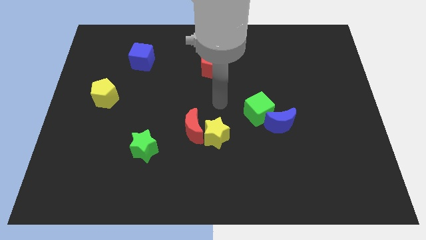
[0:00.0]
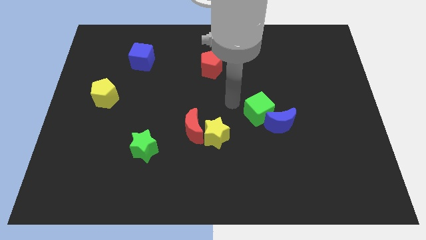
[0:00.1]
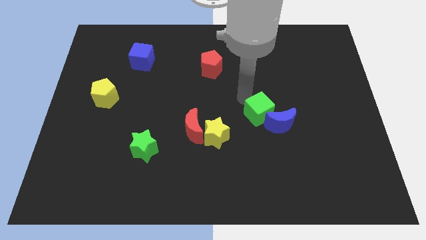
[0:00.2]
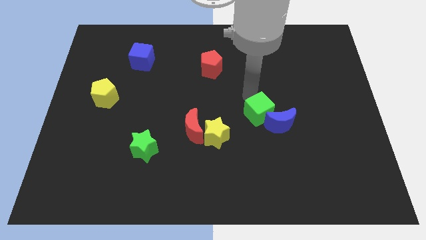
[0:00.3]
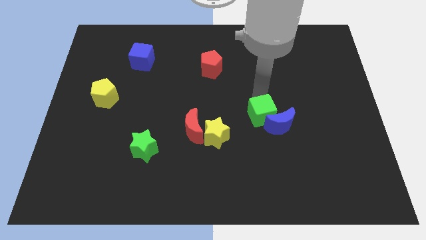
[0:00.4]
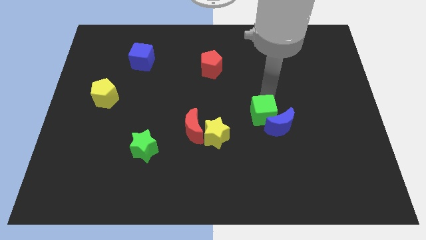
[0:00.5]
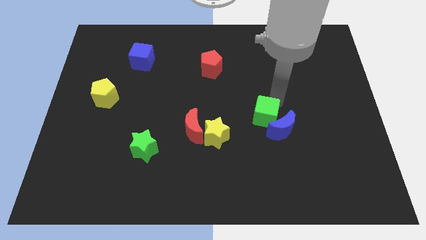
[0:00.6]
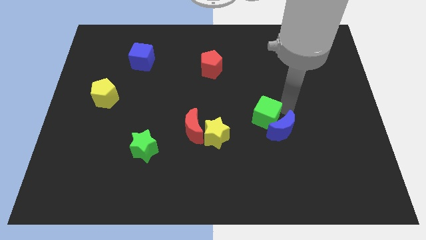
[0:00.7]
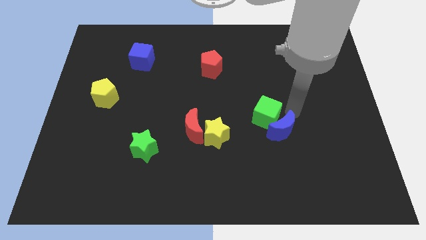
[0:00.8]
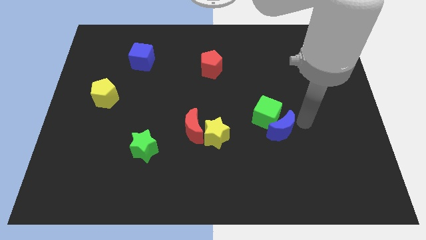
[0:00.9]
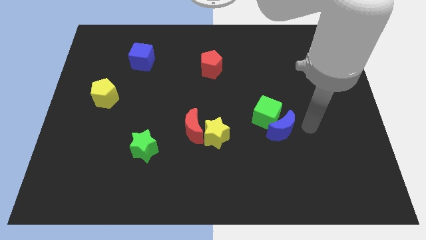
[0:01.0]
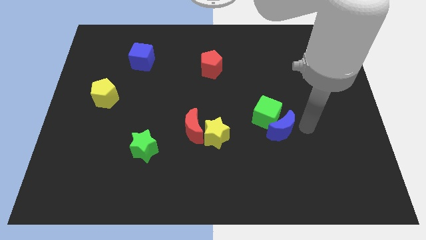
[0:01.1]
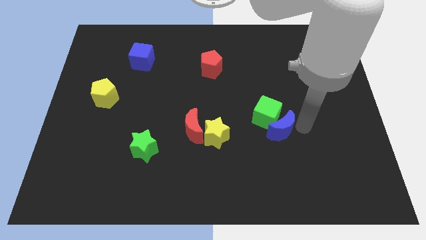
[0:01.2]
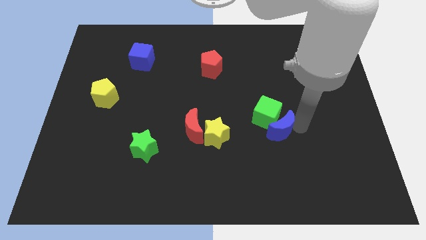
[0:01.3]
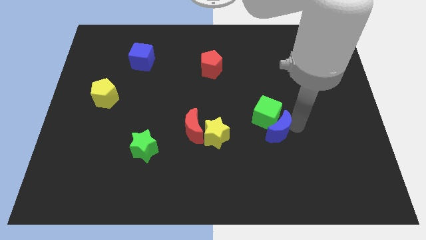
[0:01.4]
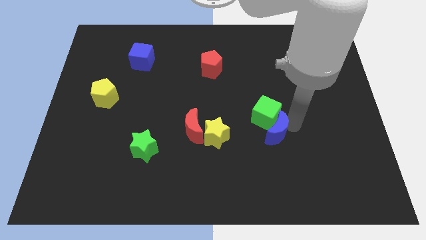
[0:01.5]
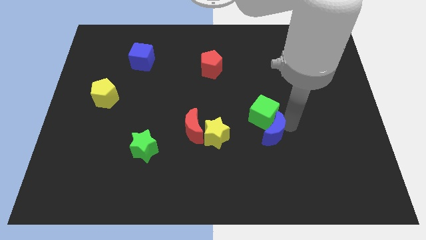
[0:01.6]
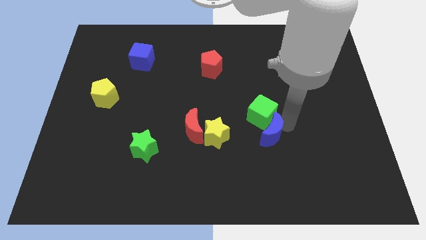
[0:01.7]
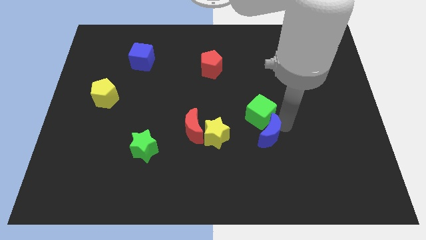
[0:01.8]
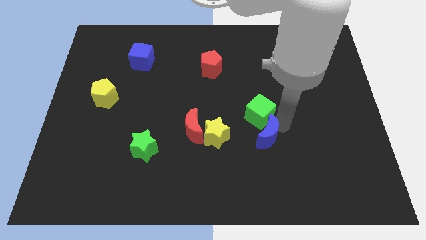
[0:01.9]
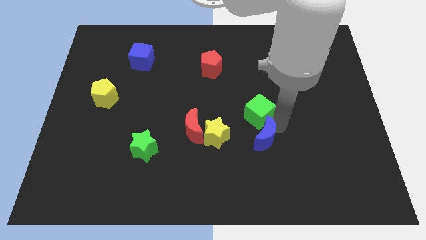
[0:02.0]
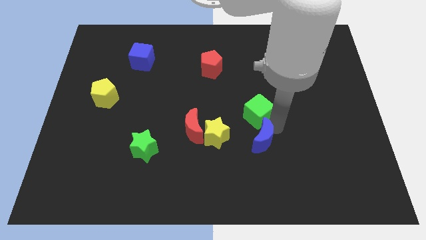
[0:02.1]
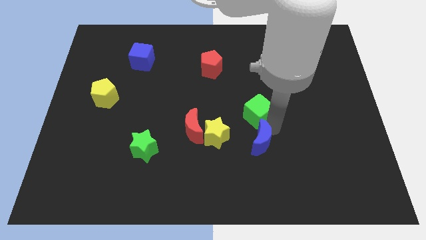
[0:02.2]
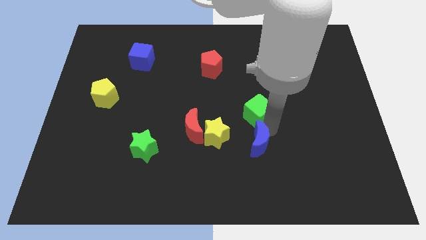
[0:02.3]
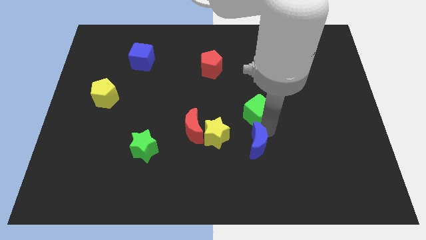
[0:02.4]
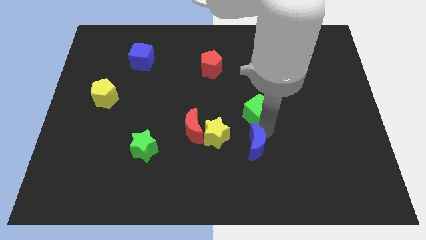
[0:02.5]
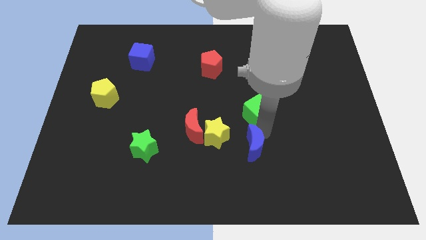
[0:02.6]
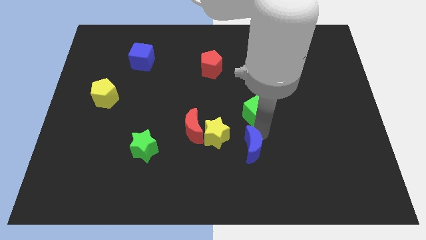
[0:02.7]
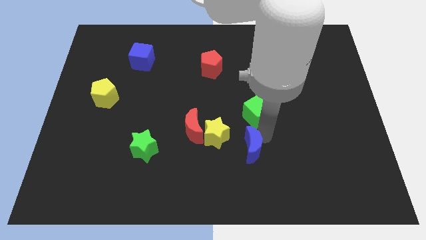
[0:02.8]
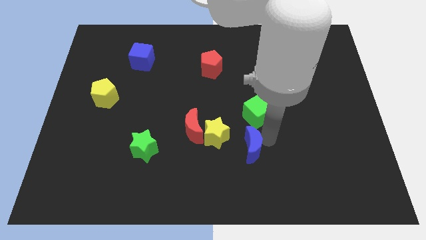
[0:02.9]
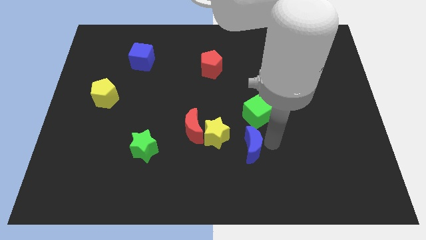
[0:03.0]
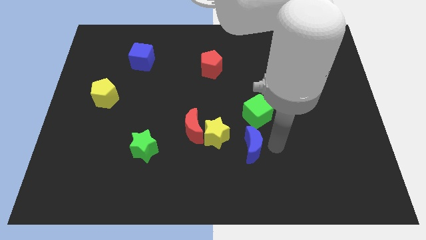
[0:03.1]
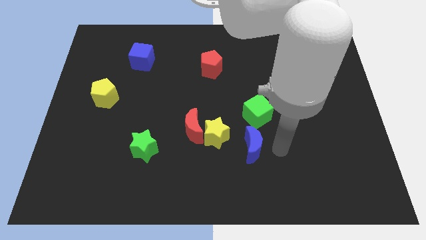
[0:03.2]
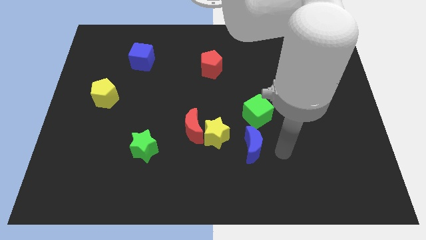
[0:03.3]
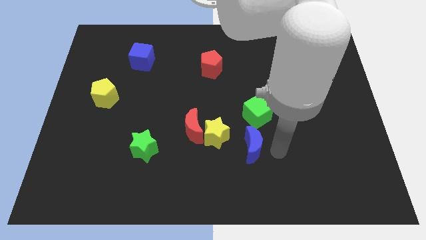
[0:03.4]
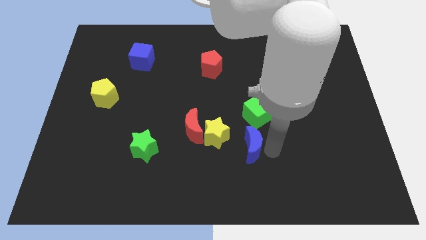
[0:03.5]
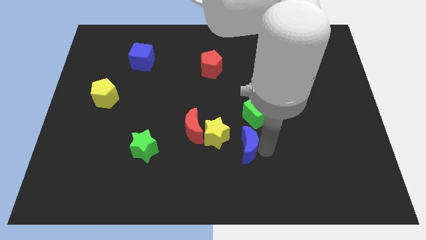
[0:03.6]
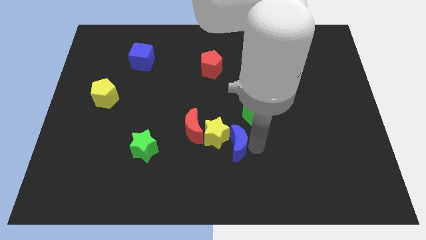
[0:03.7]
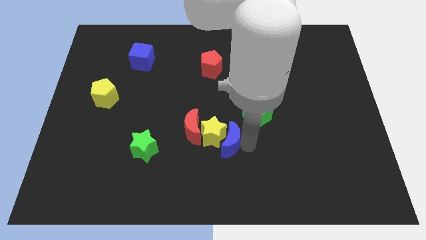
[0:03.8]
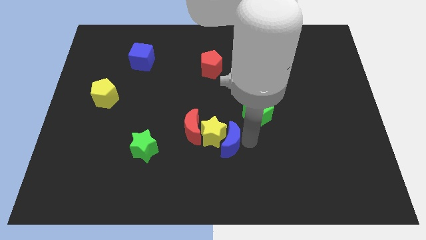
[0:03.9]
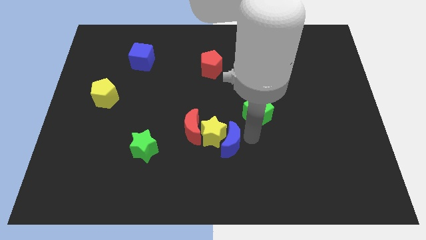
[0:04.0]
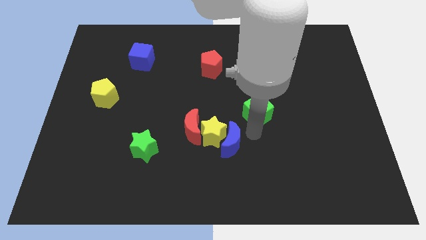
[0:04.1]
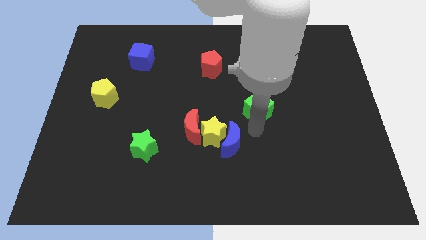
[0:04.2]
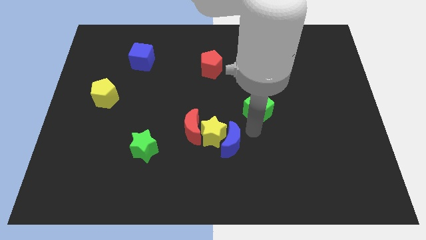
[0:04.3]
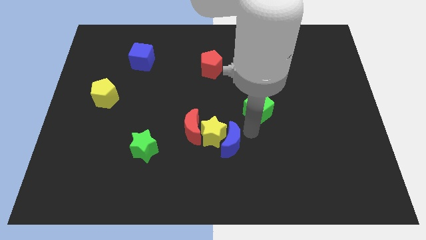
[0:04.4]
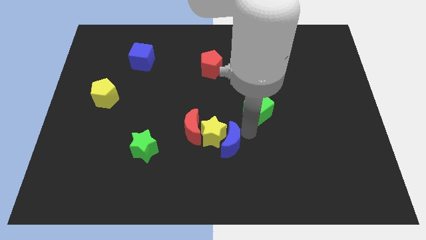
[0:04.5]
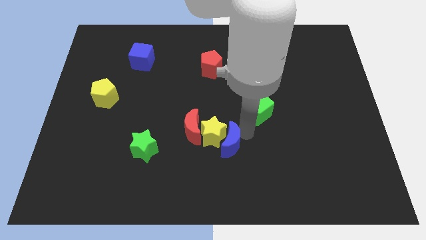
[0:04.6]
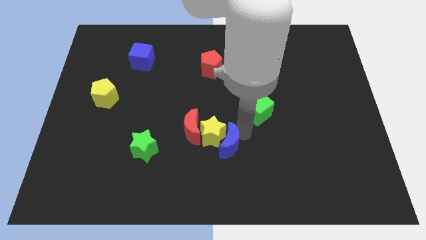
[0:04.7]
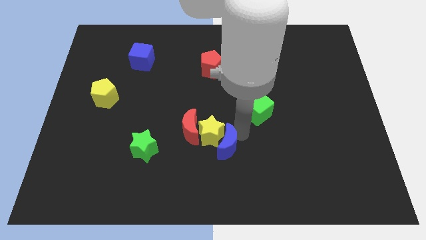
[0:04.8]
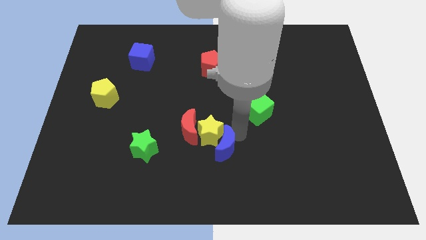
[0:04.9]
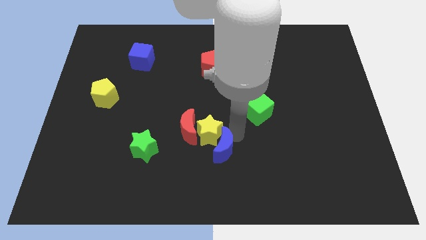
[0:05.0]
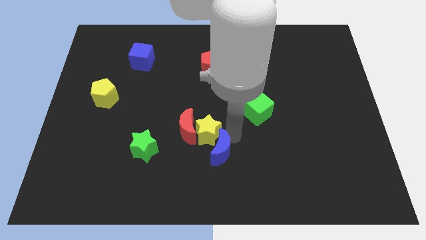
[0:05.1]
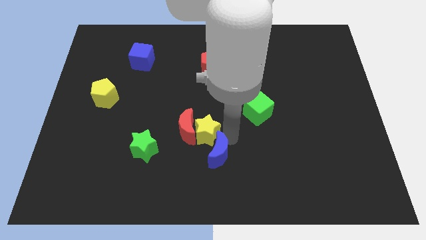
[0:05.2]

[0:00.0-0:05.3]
slide the blue moon to the right side of the green star

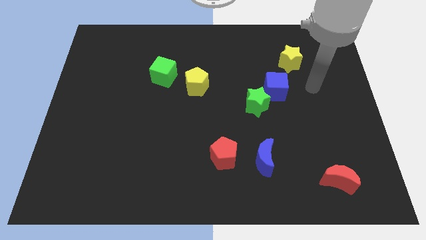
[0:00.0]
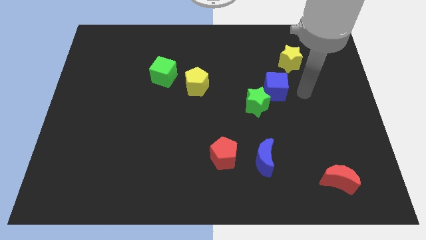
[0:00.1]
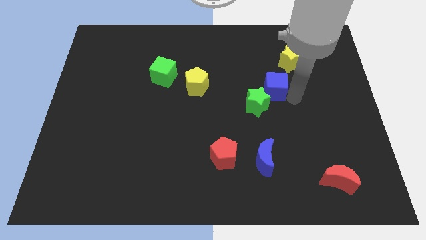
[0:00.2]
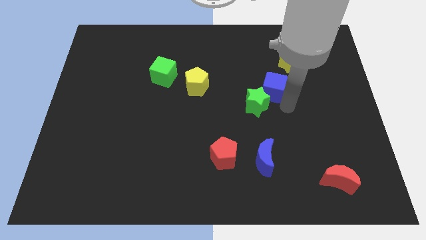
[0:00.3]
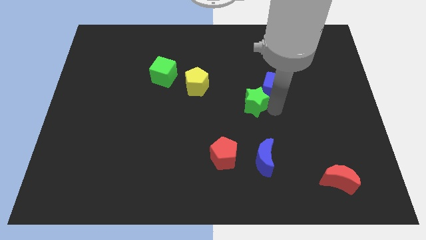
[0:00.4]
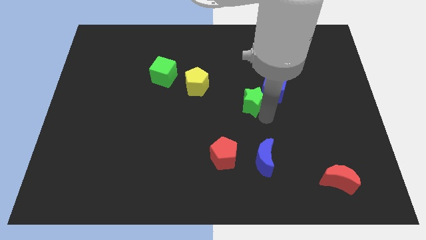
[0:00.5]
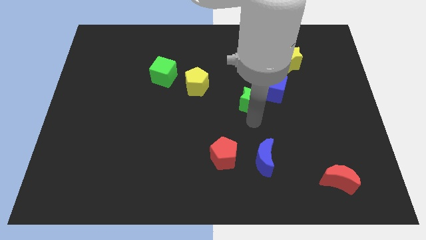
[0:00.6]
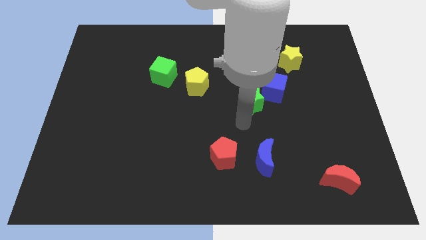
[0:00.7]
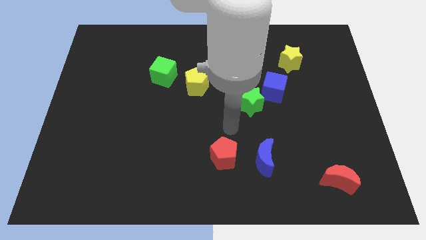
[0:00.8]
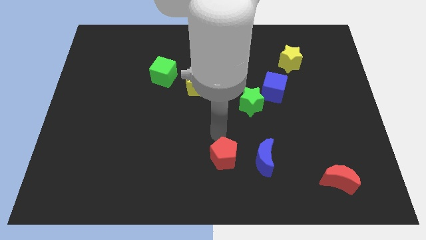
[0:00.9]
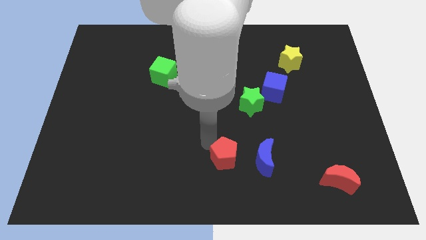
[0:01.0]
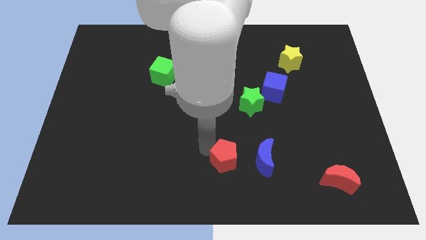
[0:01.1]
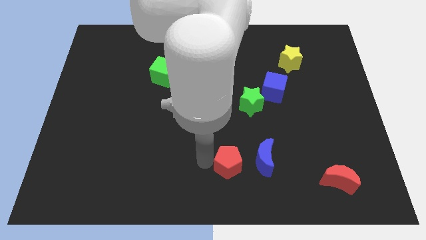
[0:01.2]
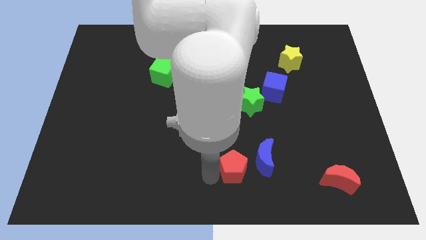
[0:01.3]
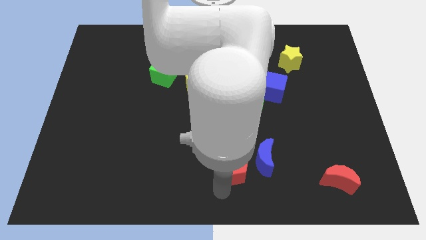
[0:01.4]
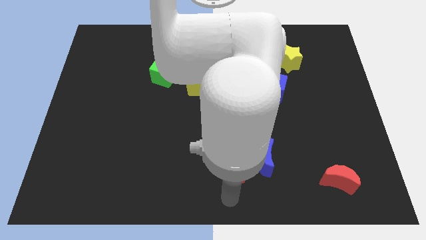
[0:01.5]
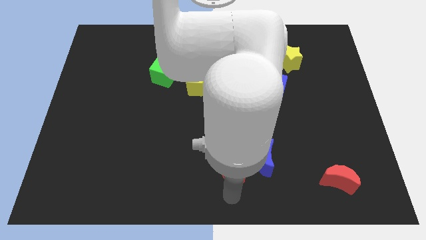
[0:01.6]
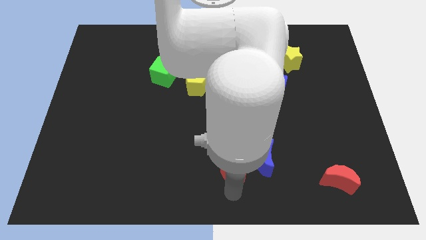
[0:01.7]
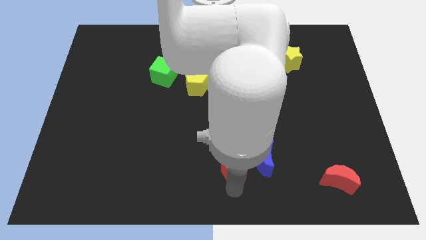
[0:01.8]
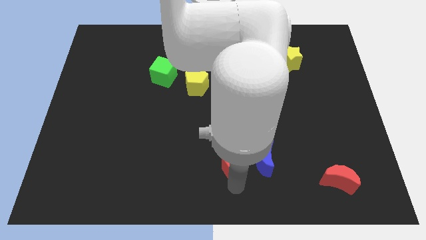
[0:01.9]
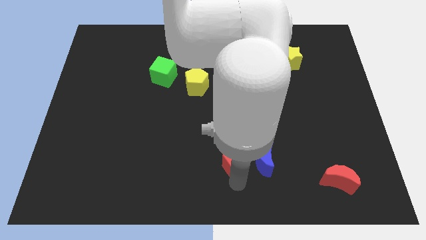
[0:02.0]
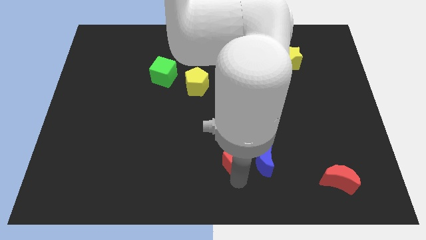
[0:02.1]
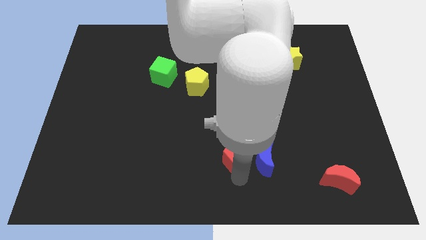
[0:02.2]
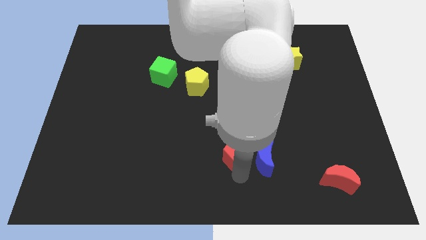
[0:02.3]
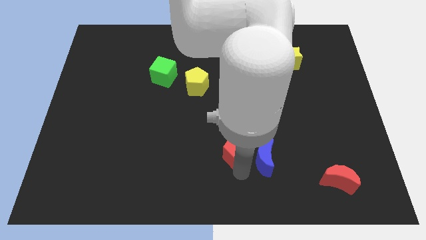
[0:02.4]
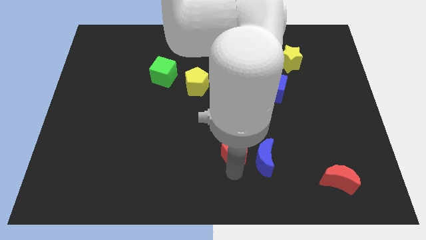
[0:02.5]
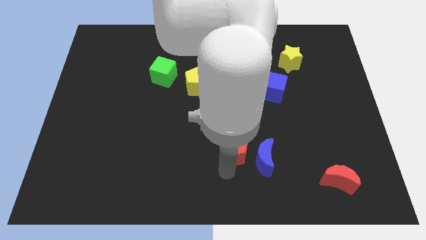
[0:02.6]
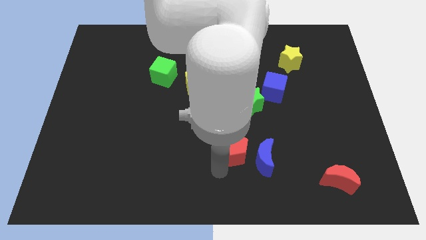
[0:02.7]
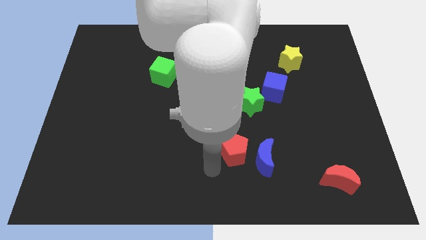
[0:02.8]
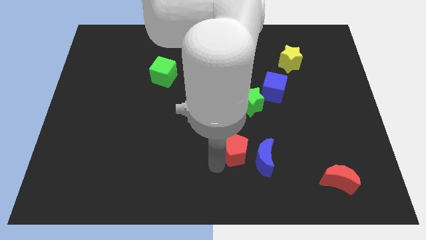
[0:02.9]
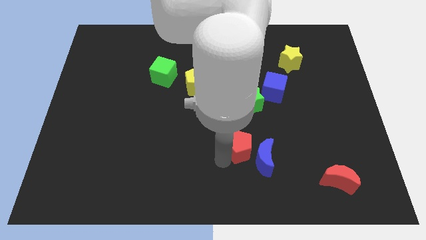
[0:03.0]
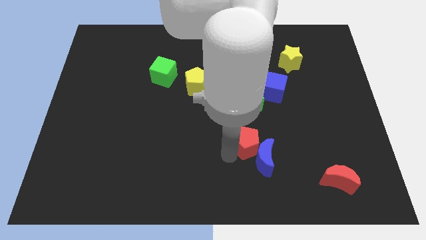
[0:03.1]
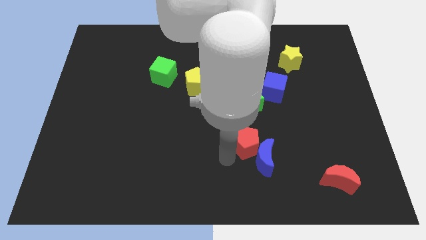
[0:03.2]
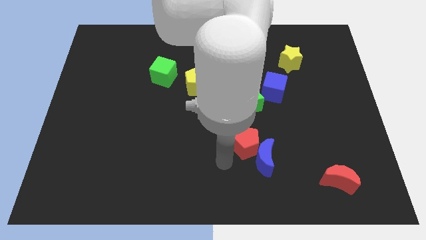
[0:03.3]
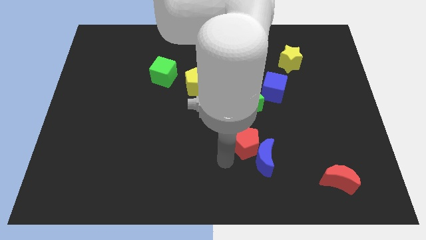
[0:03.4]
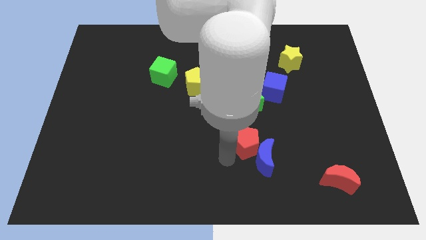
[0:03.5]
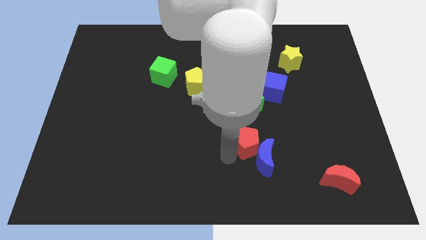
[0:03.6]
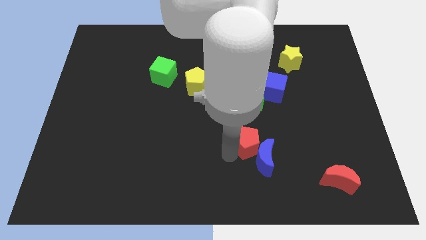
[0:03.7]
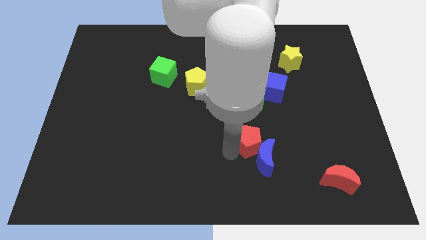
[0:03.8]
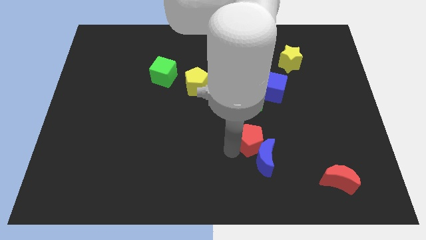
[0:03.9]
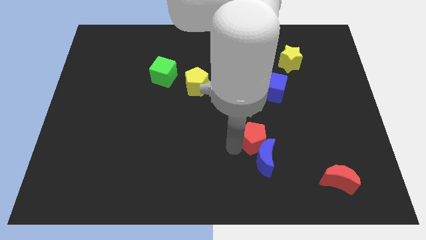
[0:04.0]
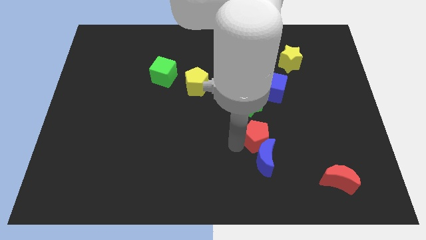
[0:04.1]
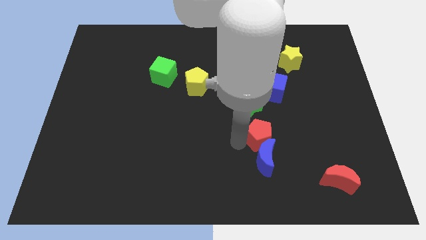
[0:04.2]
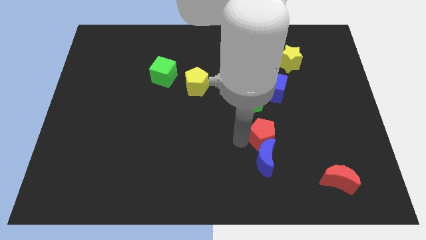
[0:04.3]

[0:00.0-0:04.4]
put the red pentagon below the blue cube
